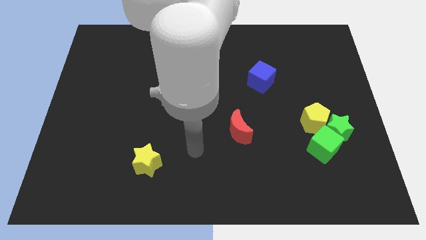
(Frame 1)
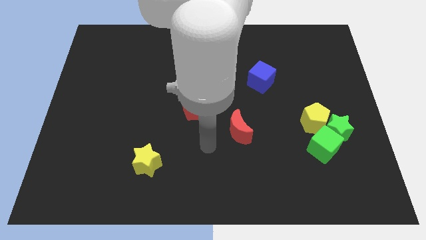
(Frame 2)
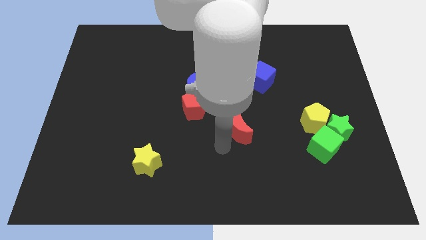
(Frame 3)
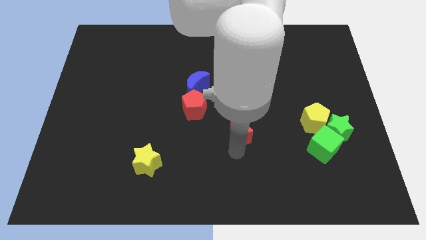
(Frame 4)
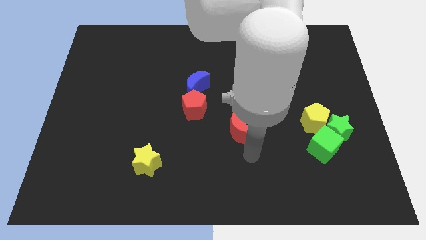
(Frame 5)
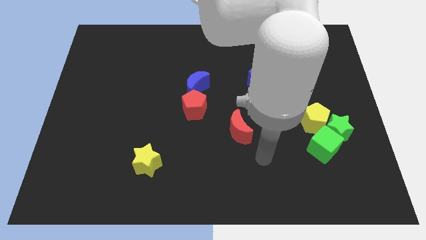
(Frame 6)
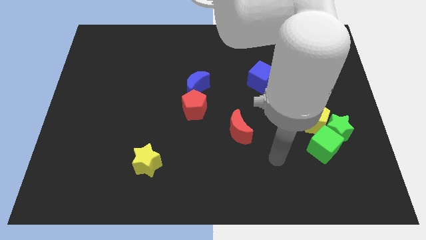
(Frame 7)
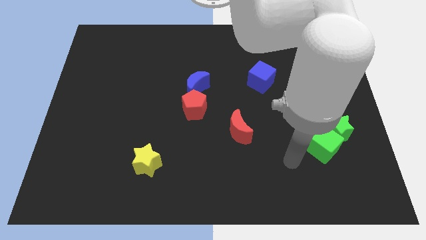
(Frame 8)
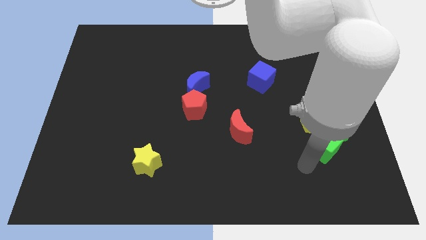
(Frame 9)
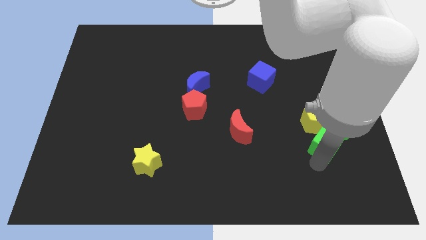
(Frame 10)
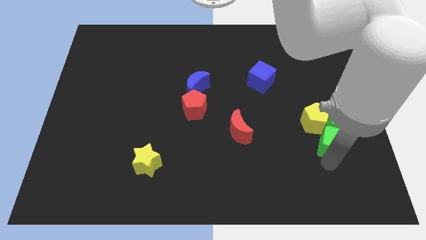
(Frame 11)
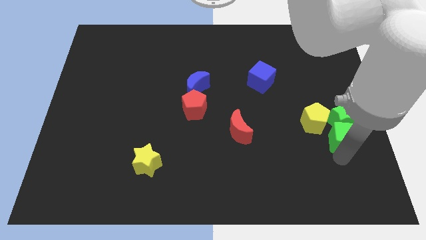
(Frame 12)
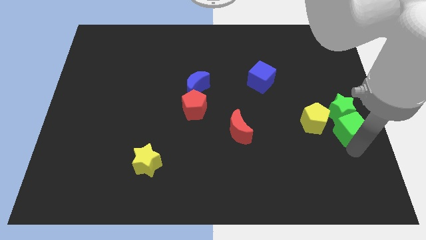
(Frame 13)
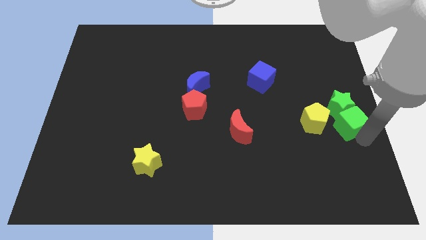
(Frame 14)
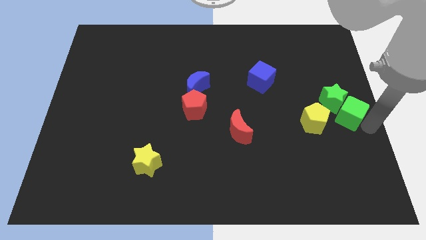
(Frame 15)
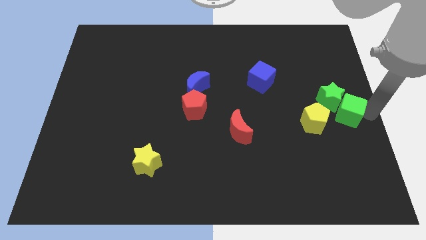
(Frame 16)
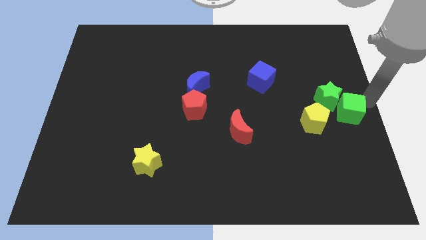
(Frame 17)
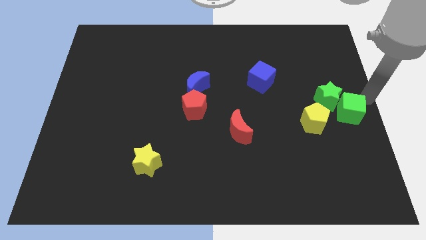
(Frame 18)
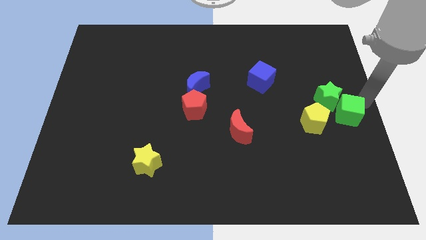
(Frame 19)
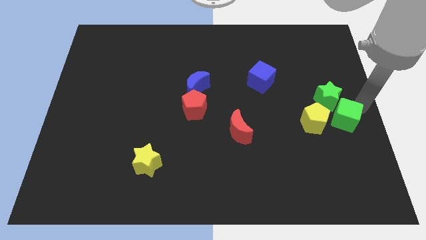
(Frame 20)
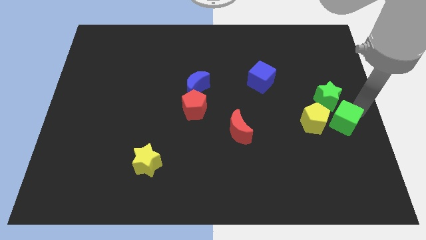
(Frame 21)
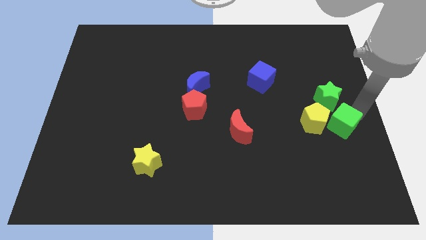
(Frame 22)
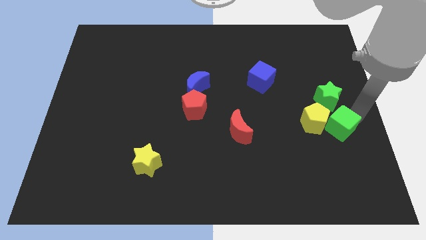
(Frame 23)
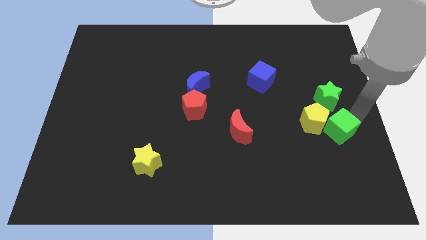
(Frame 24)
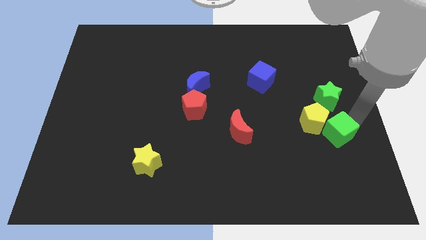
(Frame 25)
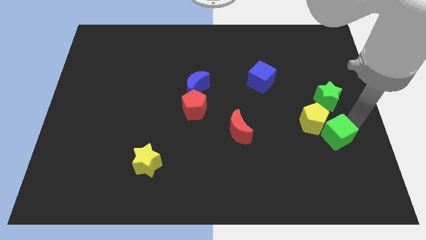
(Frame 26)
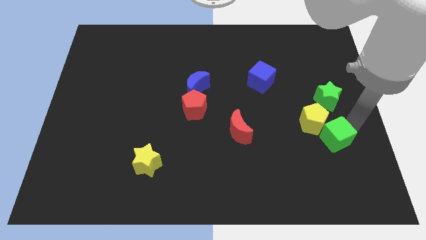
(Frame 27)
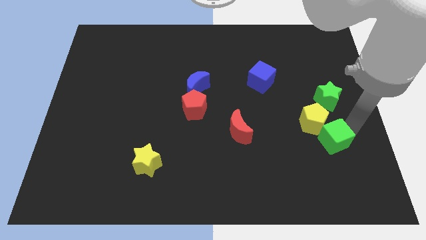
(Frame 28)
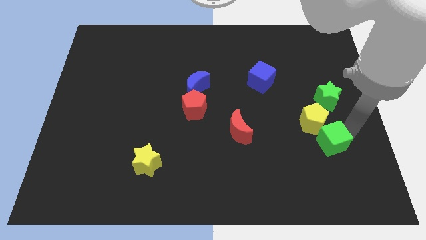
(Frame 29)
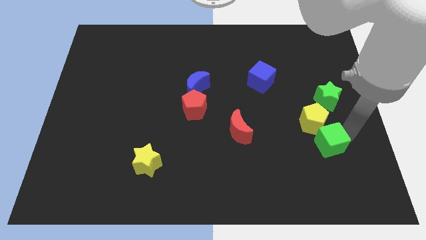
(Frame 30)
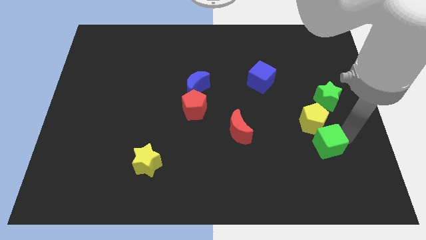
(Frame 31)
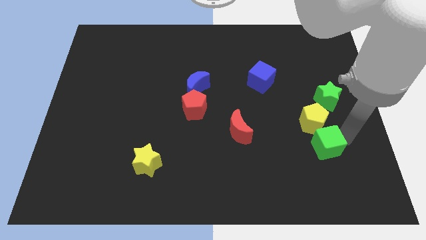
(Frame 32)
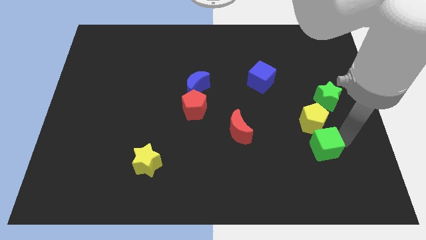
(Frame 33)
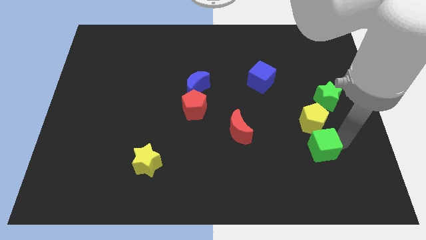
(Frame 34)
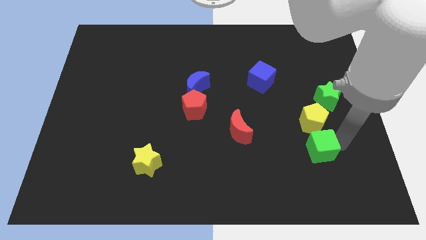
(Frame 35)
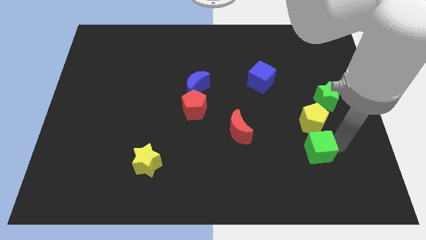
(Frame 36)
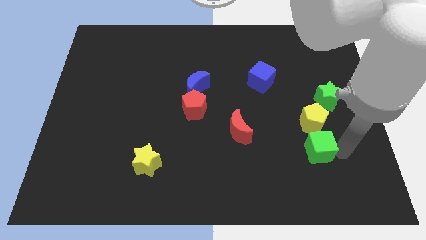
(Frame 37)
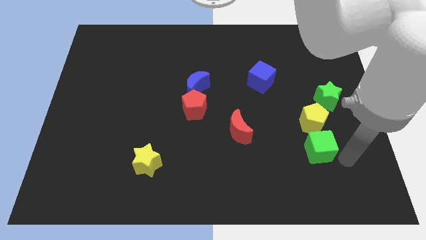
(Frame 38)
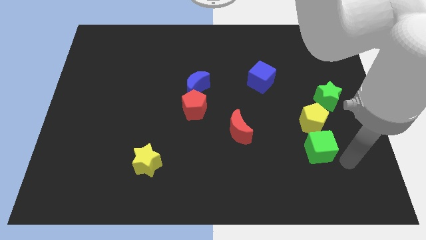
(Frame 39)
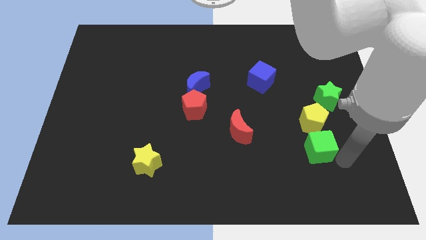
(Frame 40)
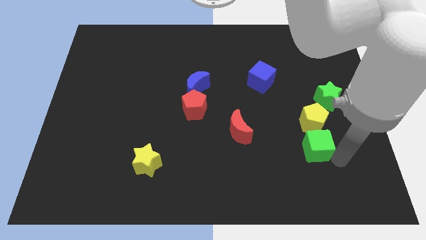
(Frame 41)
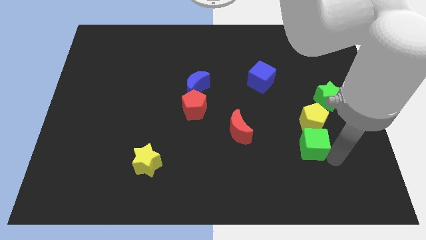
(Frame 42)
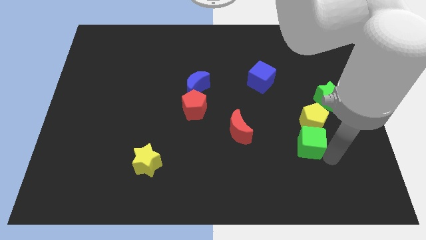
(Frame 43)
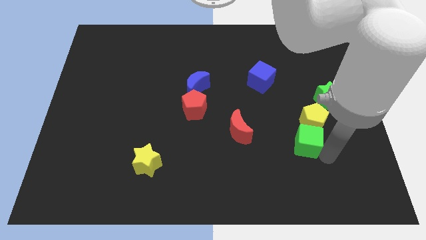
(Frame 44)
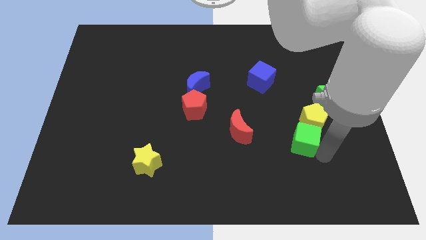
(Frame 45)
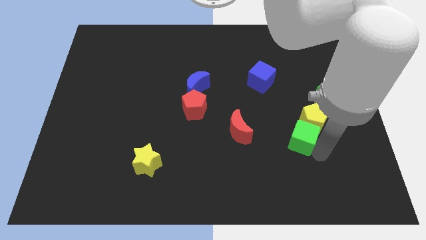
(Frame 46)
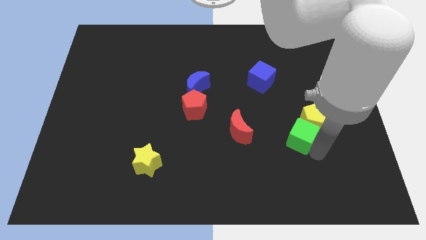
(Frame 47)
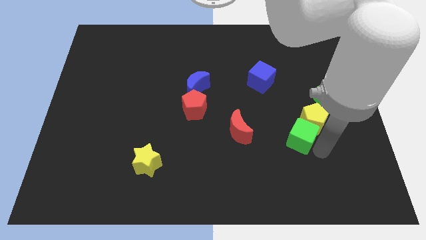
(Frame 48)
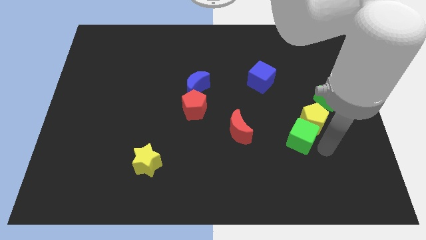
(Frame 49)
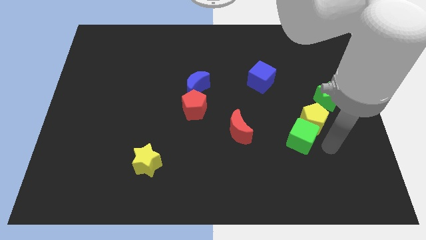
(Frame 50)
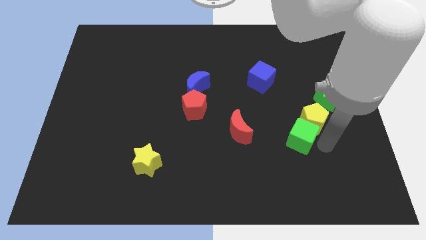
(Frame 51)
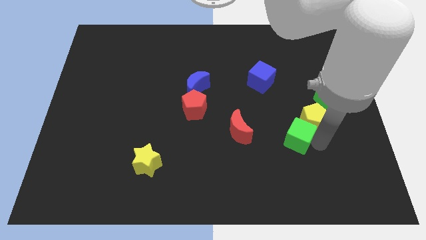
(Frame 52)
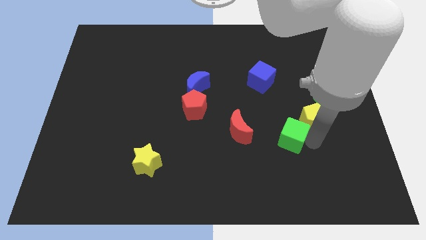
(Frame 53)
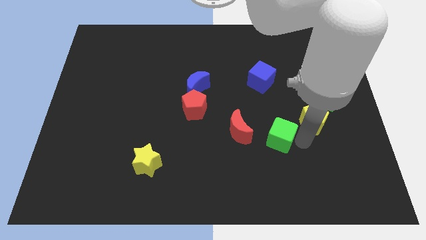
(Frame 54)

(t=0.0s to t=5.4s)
push the green cube slightly diagonally up and left

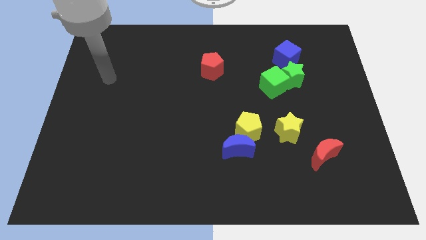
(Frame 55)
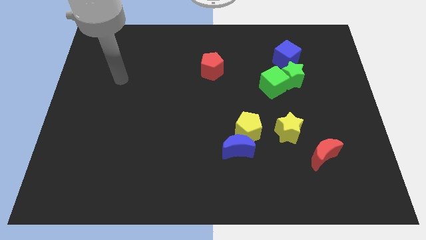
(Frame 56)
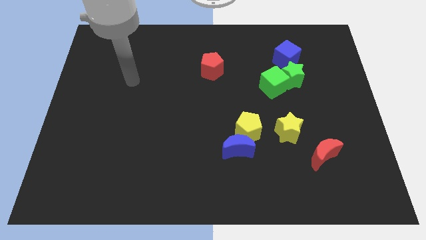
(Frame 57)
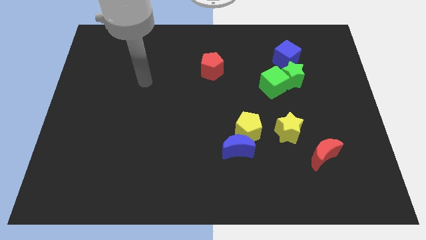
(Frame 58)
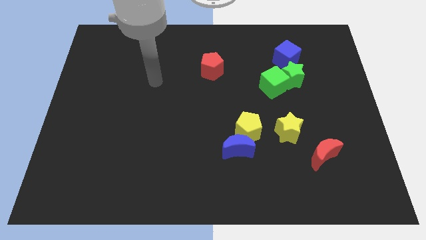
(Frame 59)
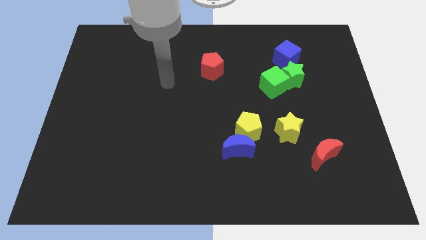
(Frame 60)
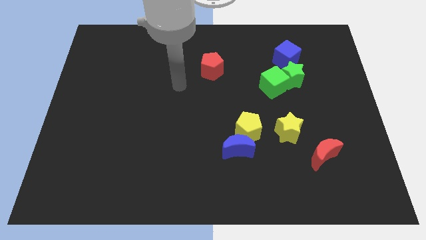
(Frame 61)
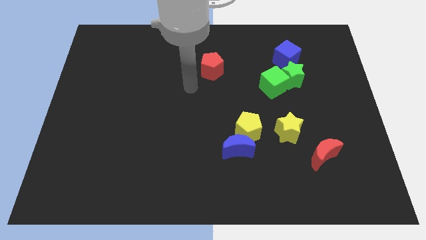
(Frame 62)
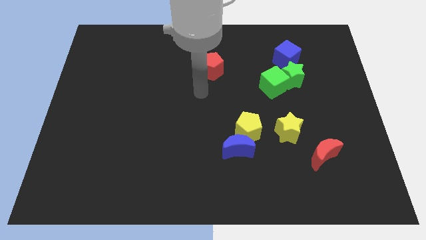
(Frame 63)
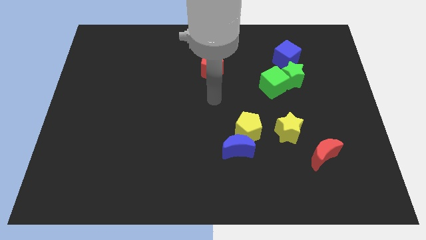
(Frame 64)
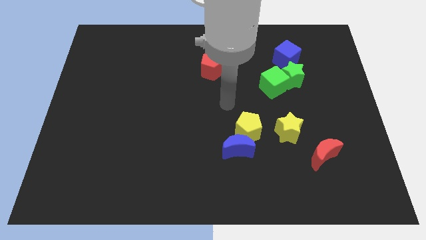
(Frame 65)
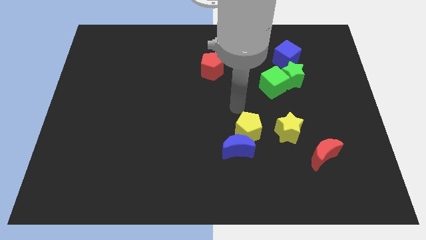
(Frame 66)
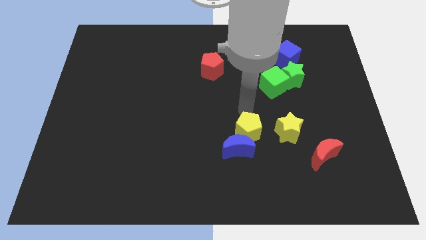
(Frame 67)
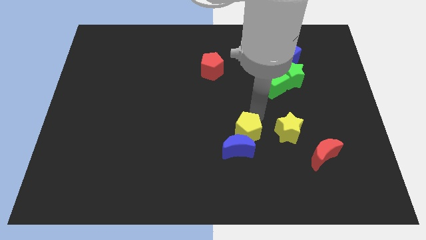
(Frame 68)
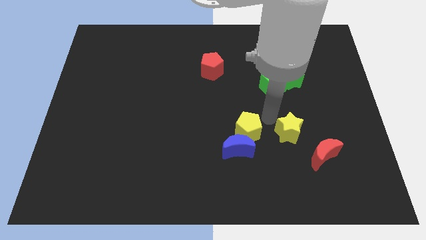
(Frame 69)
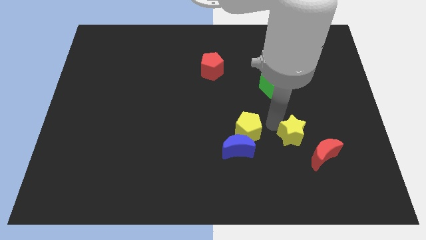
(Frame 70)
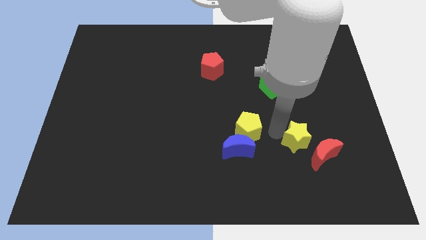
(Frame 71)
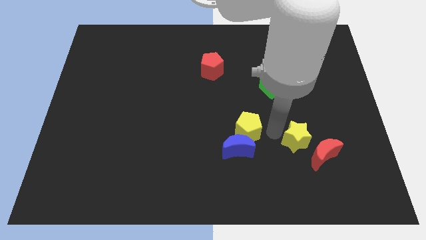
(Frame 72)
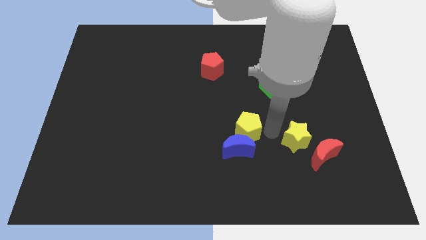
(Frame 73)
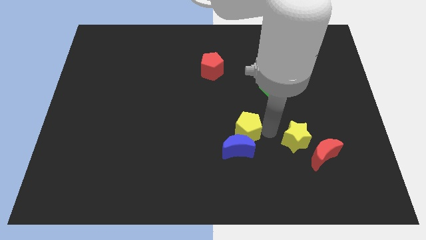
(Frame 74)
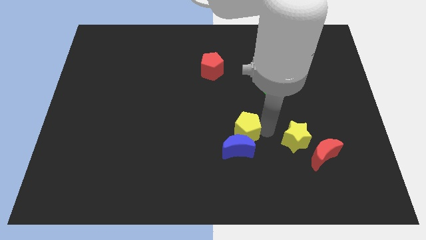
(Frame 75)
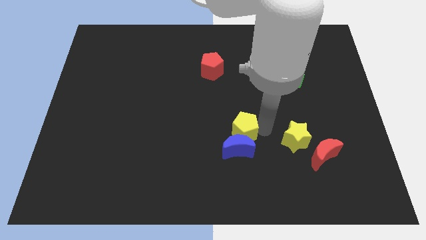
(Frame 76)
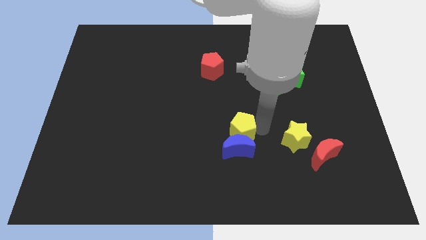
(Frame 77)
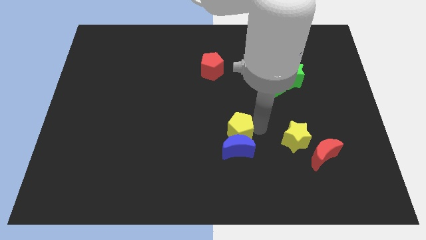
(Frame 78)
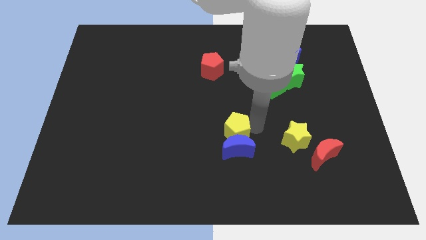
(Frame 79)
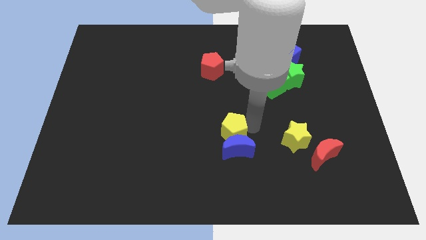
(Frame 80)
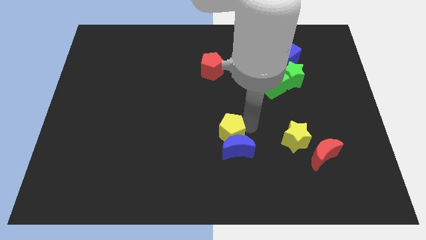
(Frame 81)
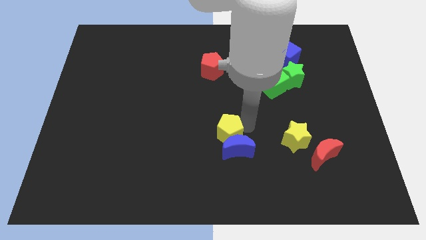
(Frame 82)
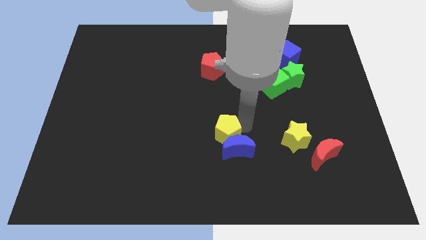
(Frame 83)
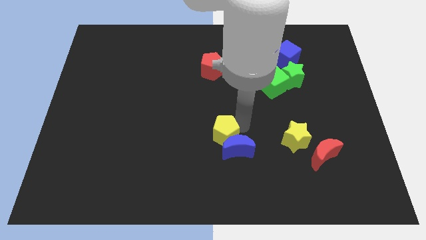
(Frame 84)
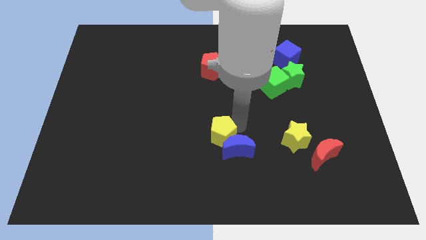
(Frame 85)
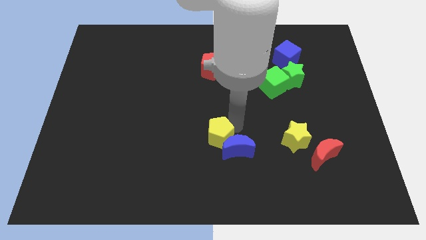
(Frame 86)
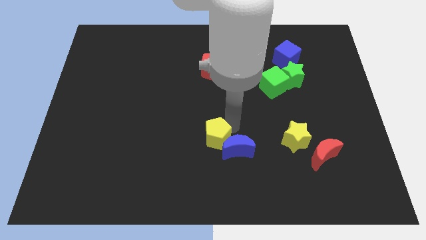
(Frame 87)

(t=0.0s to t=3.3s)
slightly move the yellow pentagon to the left
